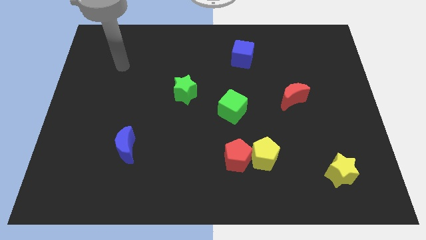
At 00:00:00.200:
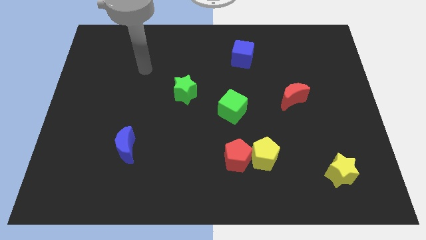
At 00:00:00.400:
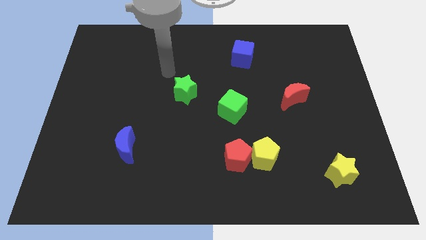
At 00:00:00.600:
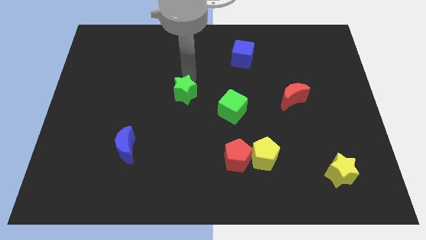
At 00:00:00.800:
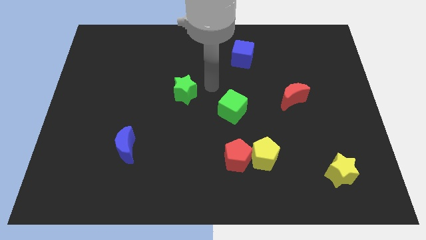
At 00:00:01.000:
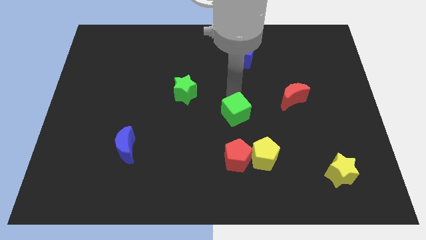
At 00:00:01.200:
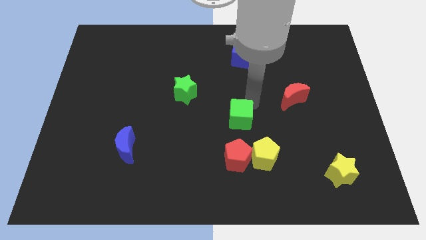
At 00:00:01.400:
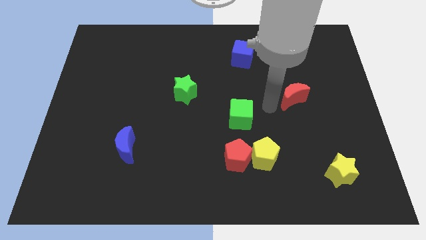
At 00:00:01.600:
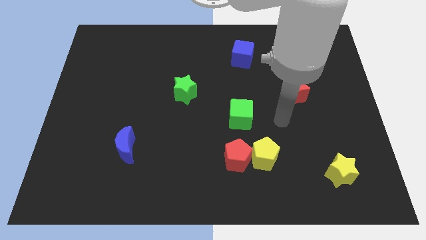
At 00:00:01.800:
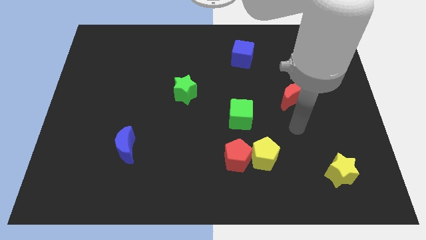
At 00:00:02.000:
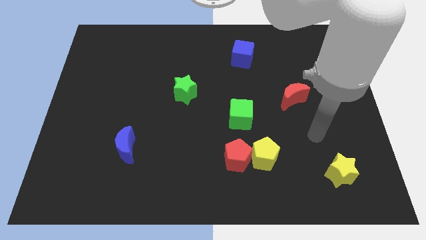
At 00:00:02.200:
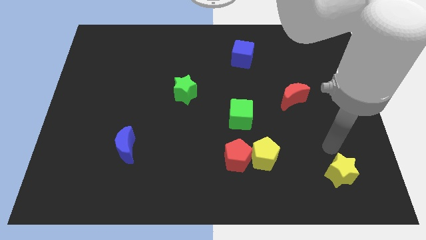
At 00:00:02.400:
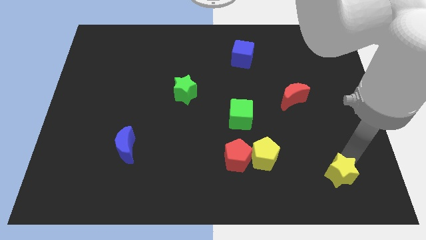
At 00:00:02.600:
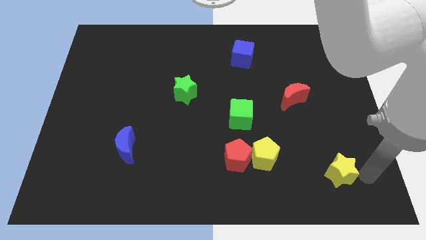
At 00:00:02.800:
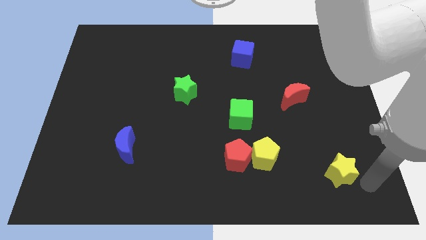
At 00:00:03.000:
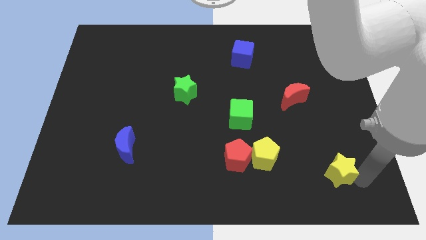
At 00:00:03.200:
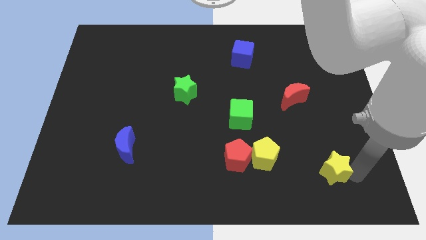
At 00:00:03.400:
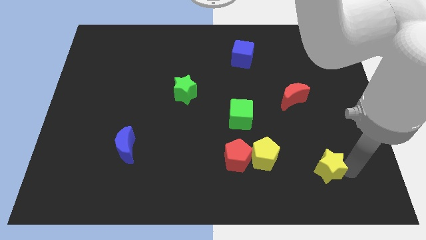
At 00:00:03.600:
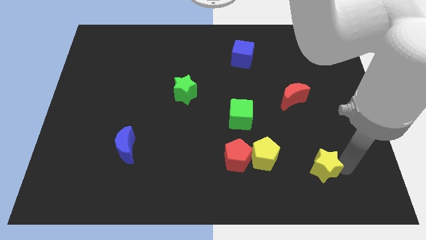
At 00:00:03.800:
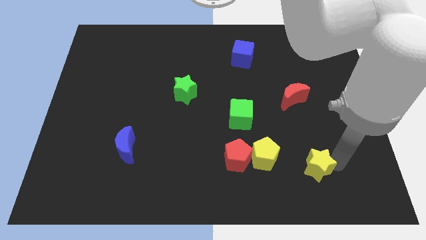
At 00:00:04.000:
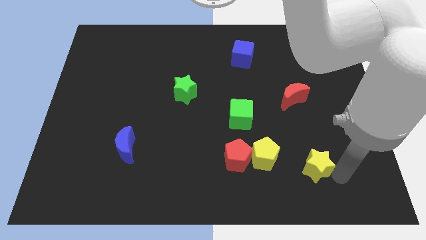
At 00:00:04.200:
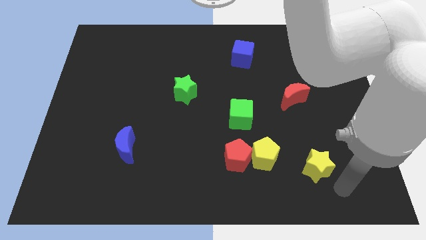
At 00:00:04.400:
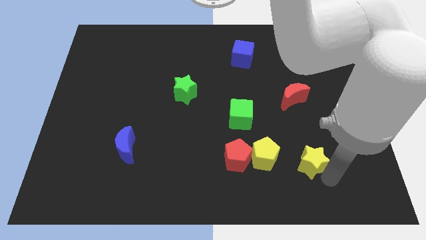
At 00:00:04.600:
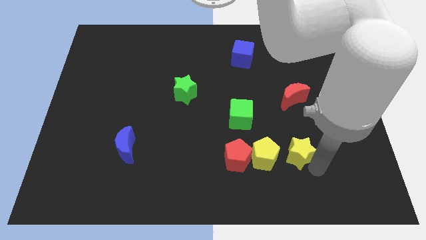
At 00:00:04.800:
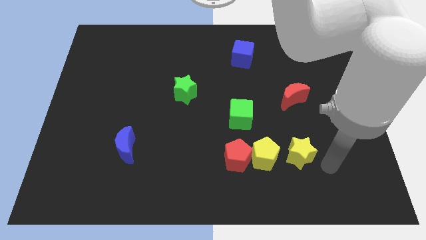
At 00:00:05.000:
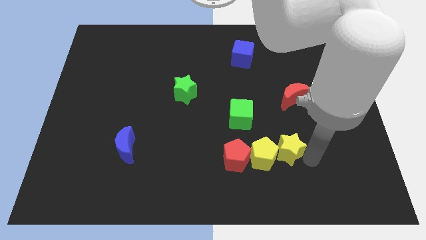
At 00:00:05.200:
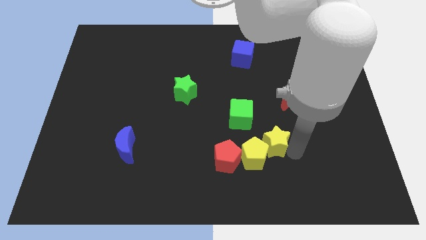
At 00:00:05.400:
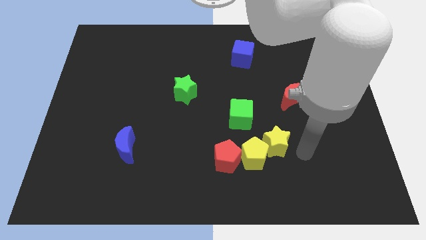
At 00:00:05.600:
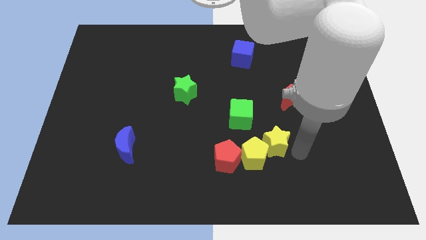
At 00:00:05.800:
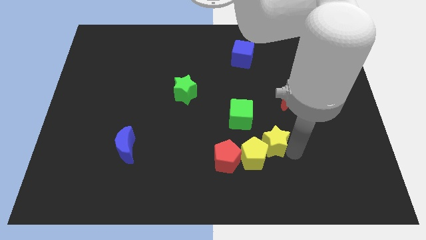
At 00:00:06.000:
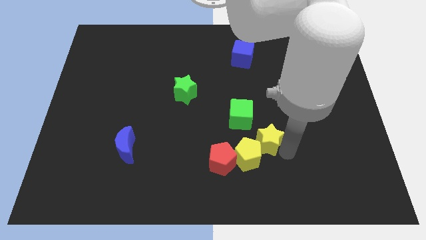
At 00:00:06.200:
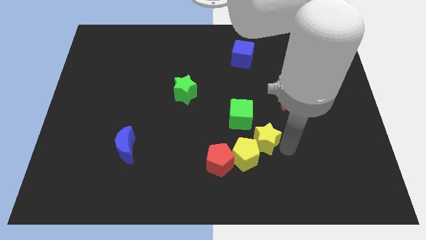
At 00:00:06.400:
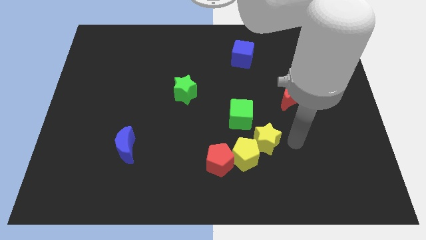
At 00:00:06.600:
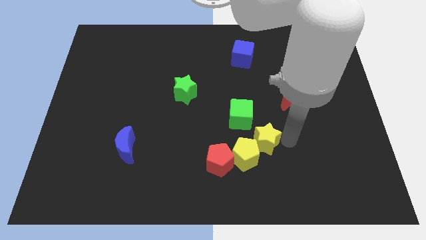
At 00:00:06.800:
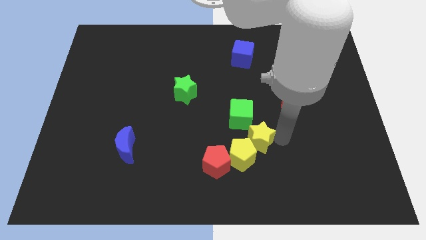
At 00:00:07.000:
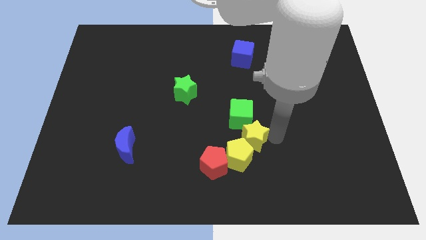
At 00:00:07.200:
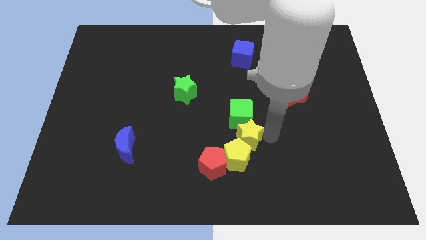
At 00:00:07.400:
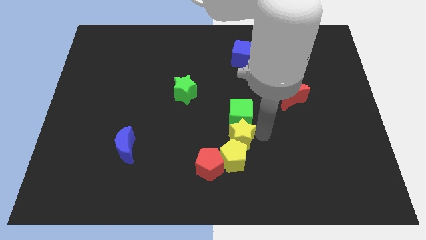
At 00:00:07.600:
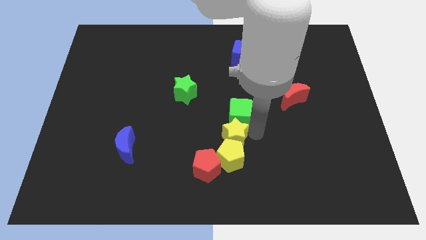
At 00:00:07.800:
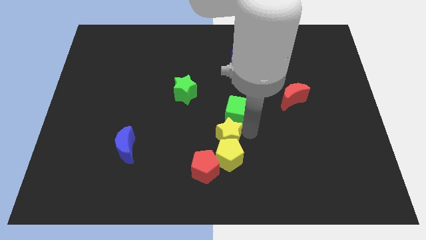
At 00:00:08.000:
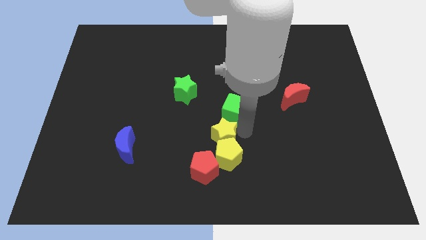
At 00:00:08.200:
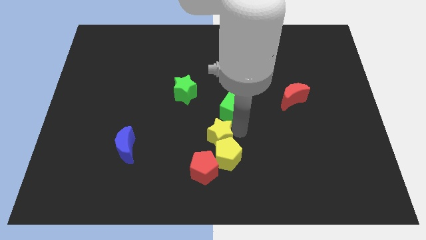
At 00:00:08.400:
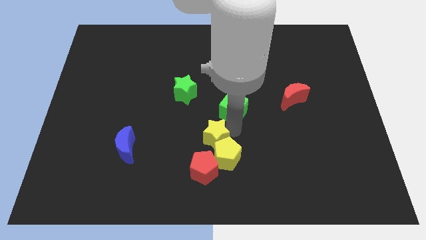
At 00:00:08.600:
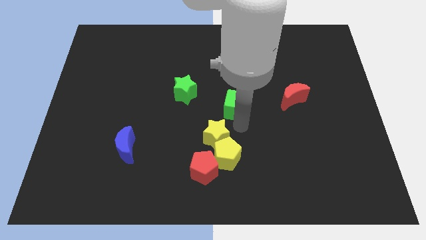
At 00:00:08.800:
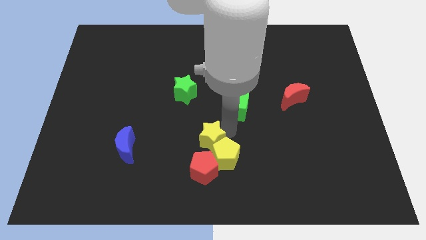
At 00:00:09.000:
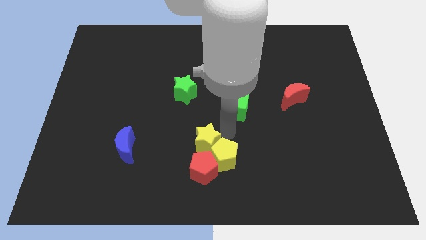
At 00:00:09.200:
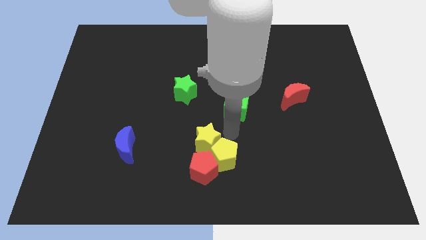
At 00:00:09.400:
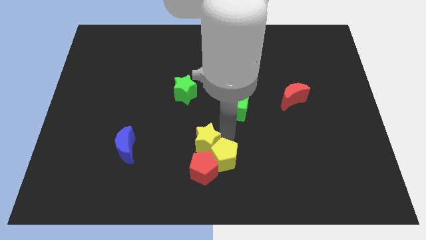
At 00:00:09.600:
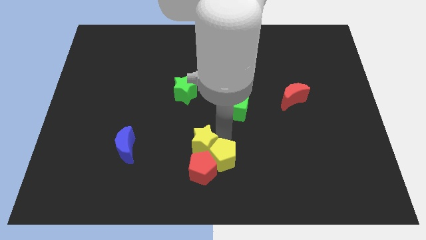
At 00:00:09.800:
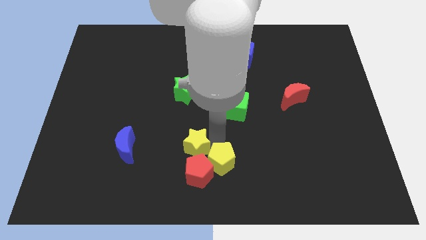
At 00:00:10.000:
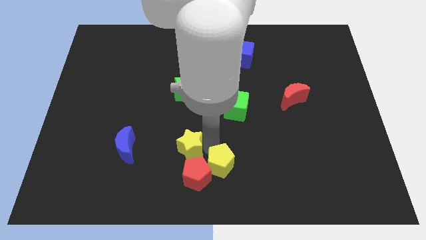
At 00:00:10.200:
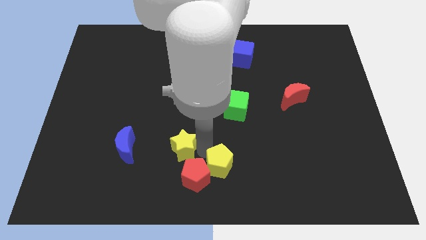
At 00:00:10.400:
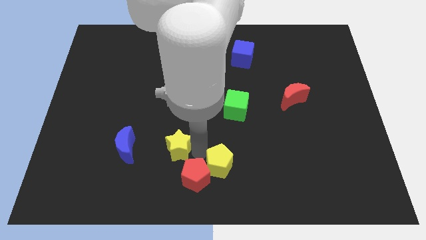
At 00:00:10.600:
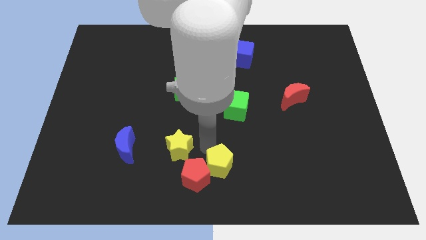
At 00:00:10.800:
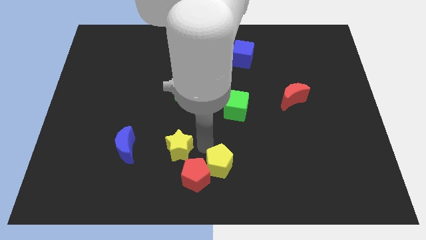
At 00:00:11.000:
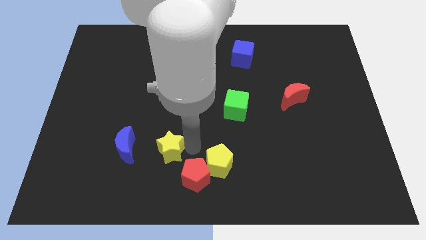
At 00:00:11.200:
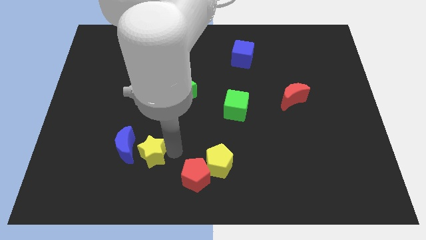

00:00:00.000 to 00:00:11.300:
move the yellow star close to the blue moon

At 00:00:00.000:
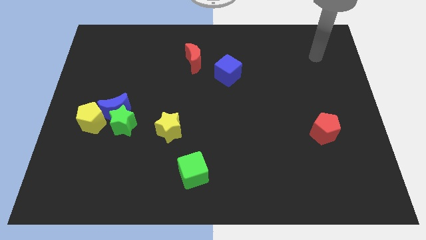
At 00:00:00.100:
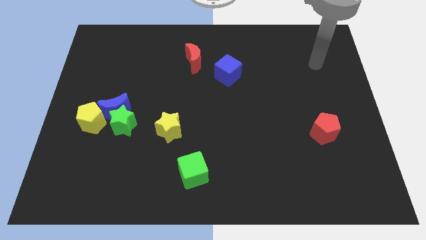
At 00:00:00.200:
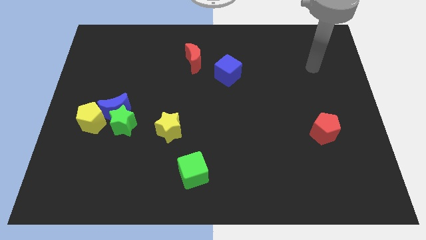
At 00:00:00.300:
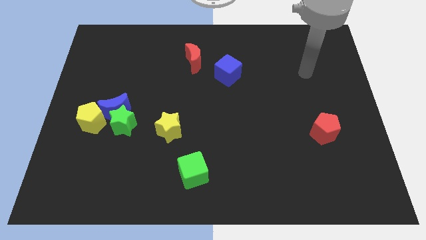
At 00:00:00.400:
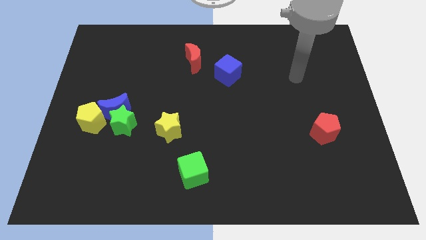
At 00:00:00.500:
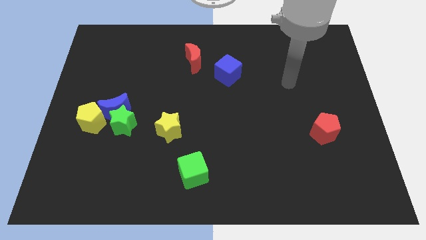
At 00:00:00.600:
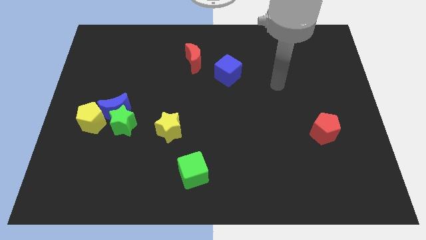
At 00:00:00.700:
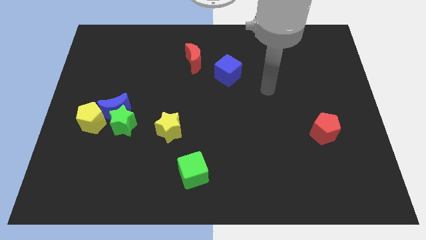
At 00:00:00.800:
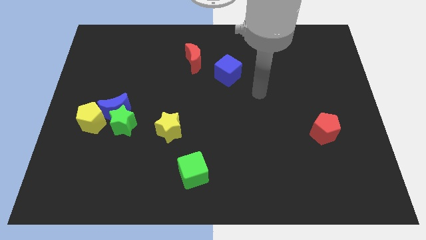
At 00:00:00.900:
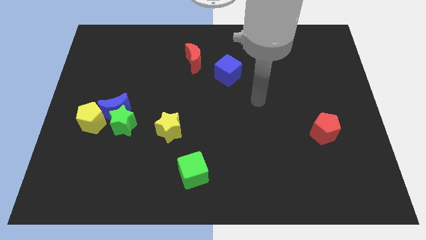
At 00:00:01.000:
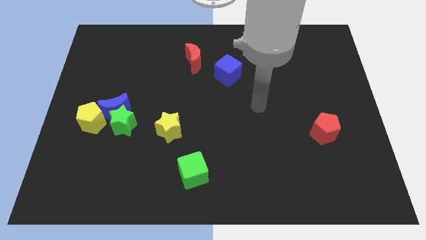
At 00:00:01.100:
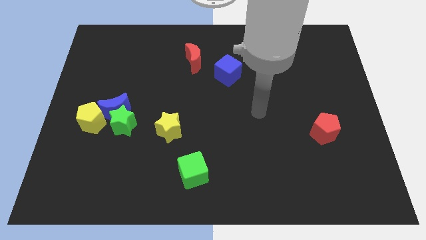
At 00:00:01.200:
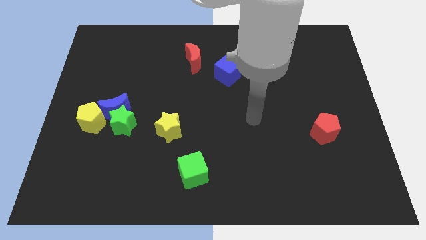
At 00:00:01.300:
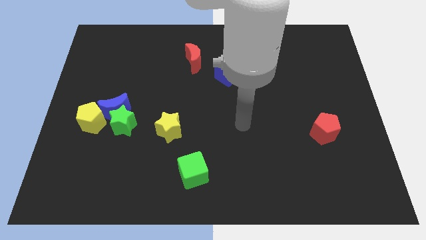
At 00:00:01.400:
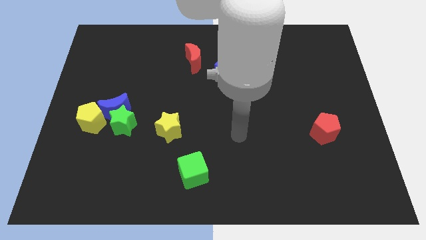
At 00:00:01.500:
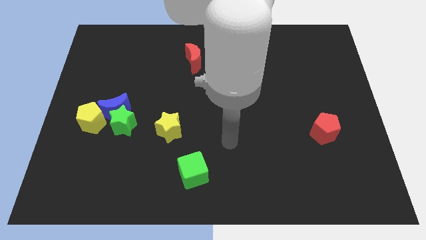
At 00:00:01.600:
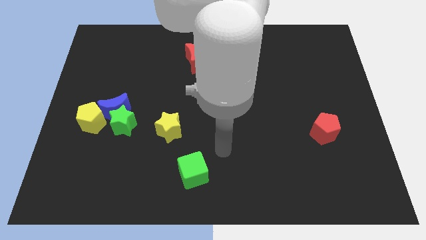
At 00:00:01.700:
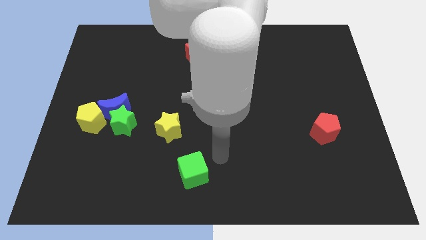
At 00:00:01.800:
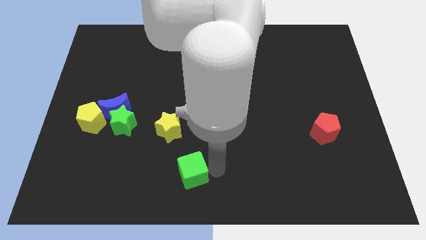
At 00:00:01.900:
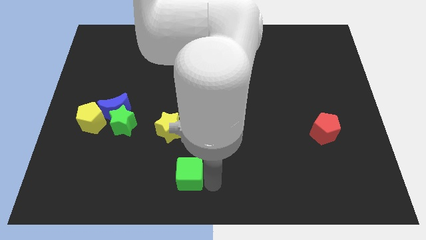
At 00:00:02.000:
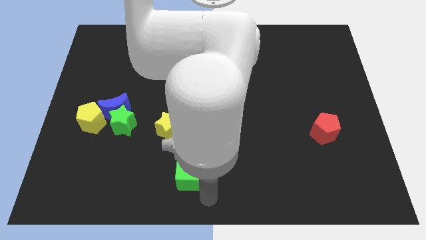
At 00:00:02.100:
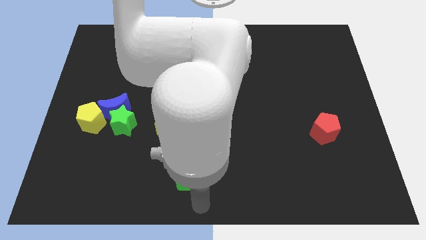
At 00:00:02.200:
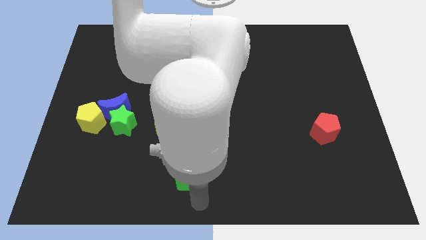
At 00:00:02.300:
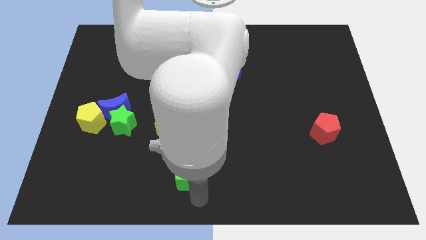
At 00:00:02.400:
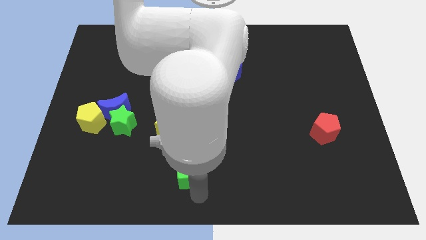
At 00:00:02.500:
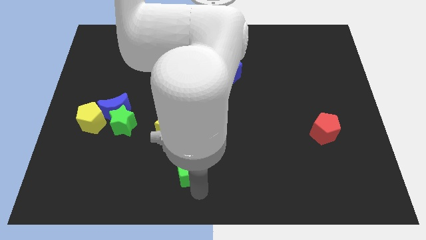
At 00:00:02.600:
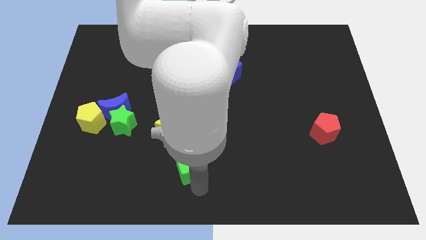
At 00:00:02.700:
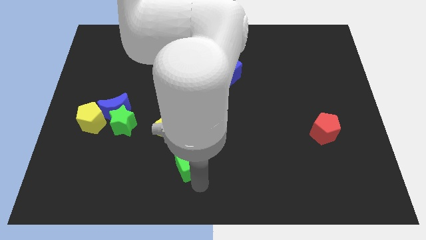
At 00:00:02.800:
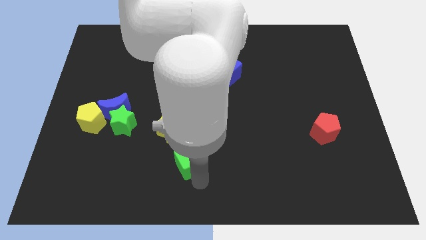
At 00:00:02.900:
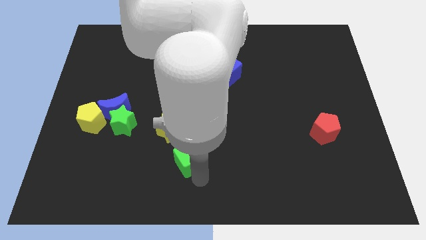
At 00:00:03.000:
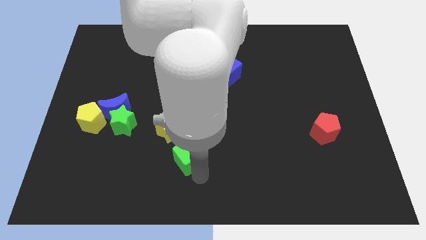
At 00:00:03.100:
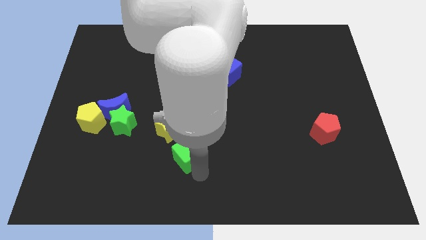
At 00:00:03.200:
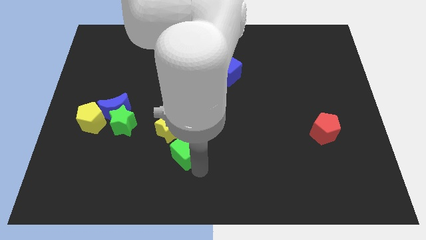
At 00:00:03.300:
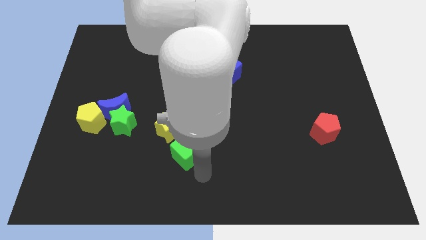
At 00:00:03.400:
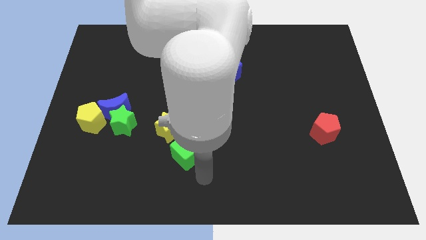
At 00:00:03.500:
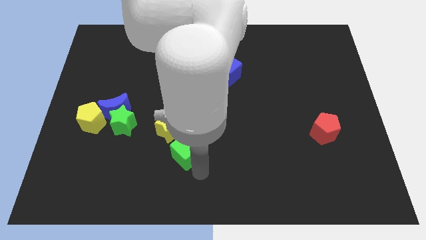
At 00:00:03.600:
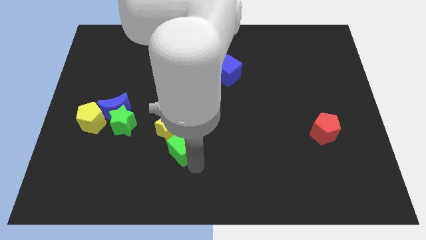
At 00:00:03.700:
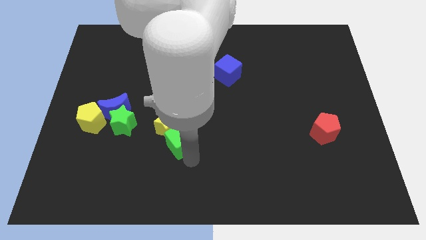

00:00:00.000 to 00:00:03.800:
push the green cube close to the yellow star
